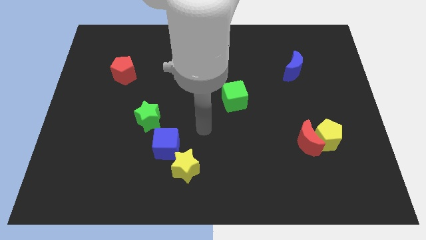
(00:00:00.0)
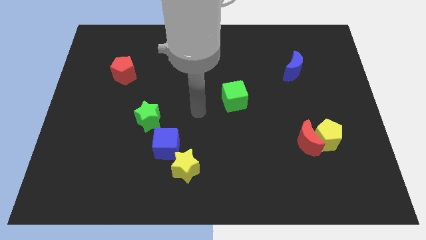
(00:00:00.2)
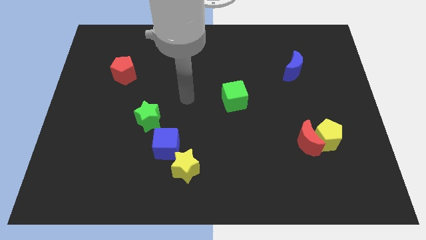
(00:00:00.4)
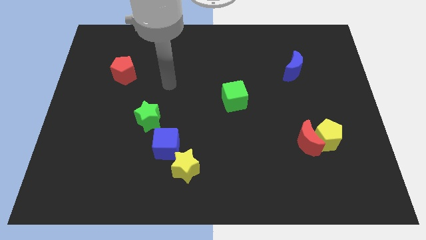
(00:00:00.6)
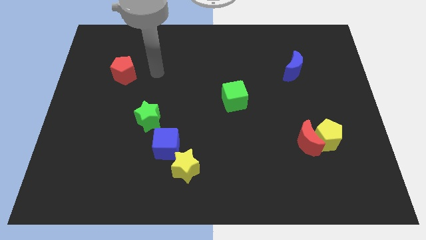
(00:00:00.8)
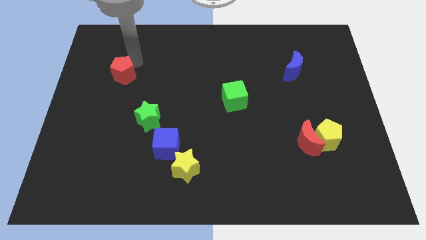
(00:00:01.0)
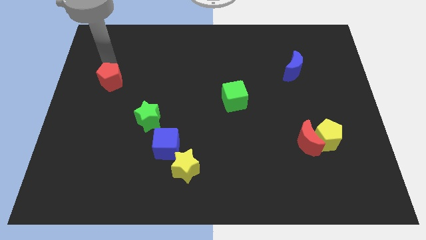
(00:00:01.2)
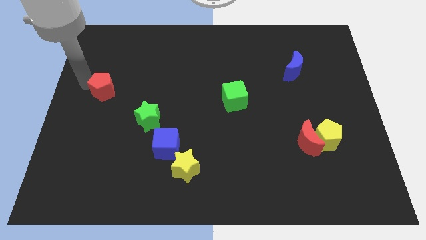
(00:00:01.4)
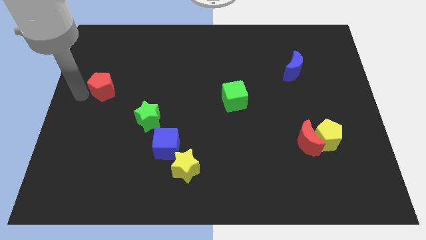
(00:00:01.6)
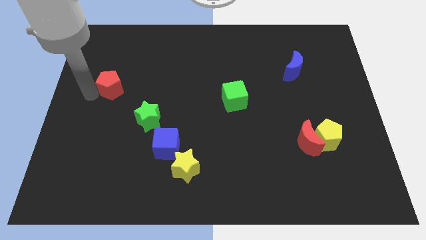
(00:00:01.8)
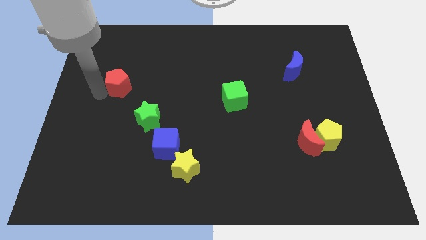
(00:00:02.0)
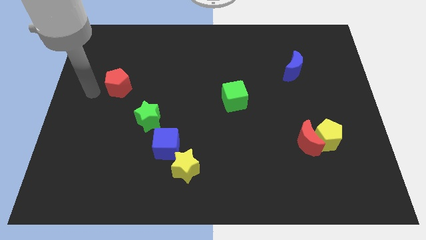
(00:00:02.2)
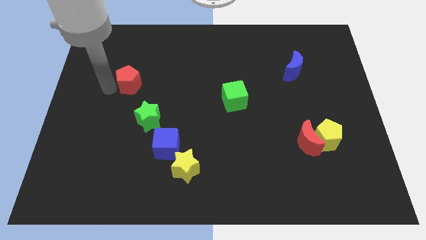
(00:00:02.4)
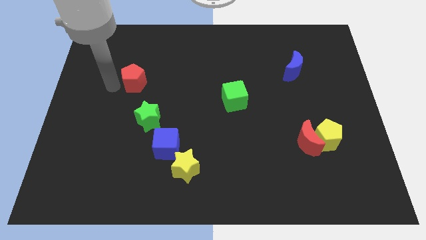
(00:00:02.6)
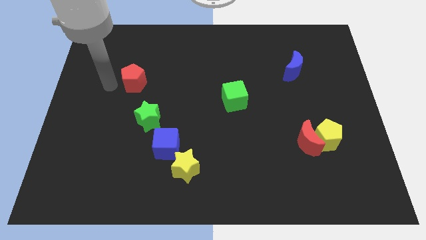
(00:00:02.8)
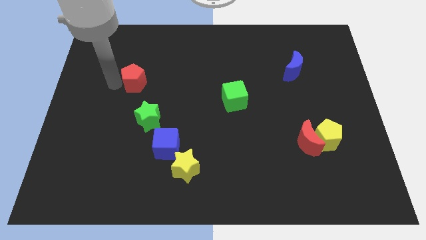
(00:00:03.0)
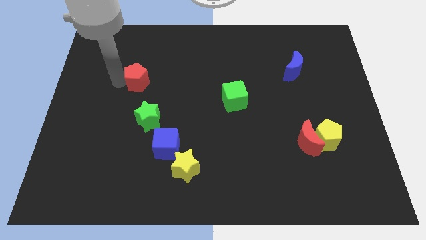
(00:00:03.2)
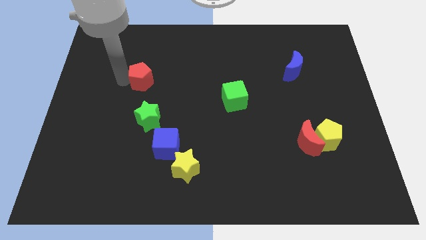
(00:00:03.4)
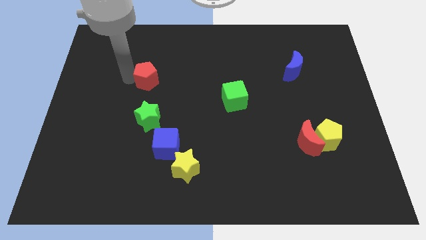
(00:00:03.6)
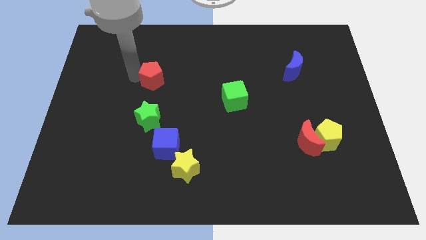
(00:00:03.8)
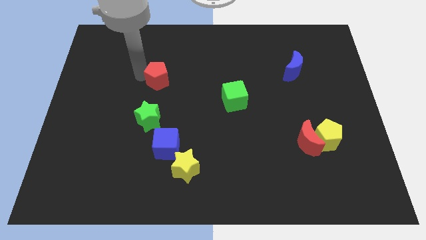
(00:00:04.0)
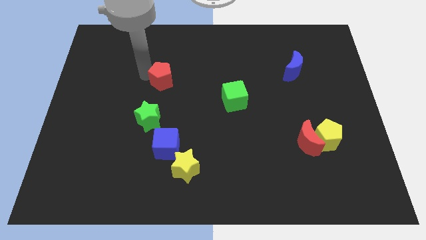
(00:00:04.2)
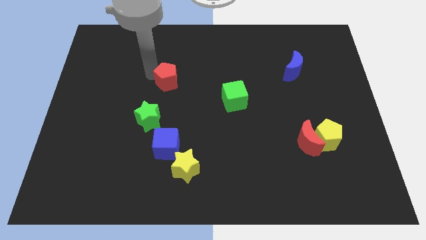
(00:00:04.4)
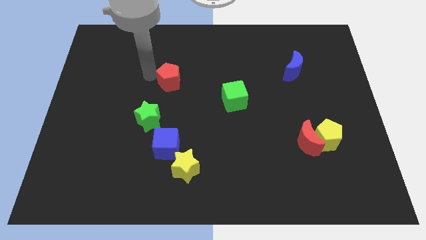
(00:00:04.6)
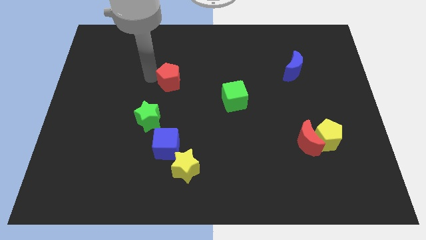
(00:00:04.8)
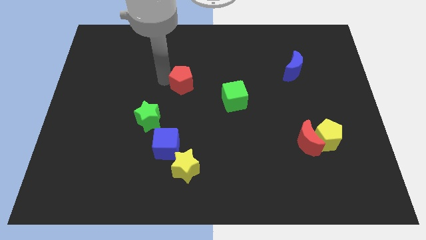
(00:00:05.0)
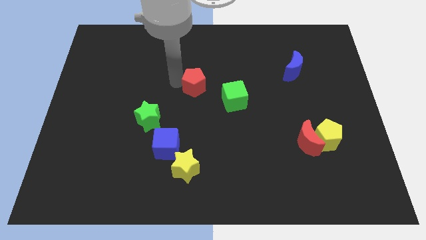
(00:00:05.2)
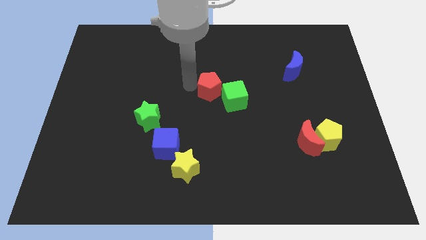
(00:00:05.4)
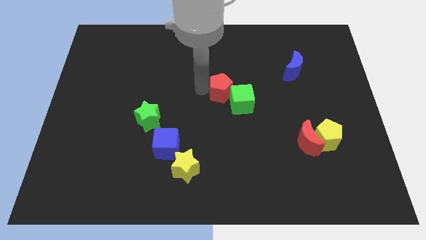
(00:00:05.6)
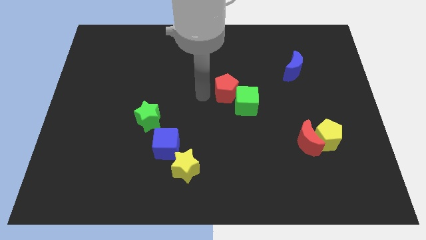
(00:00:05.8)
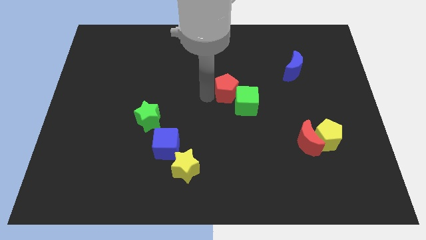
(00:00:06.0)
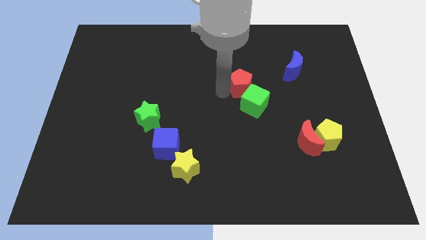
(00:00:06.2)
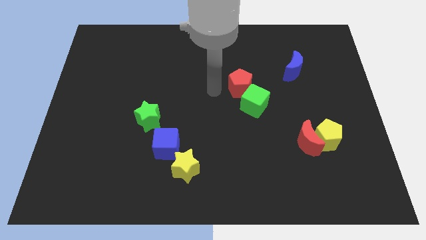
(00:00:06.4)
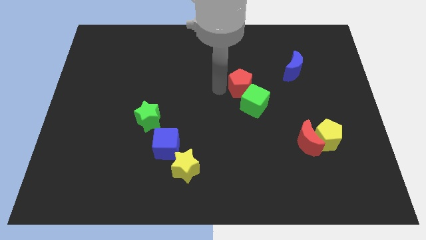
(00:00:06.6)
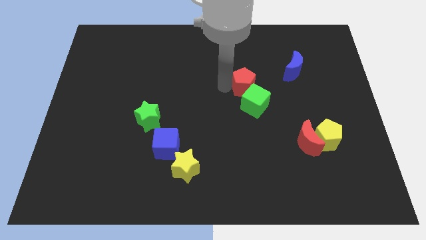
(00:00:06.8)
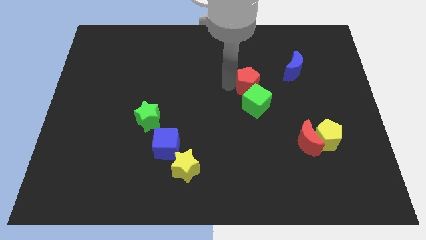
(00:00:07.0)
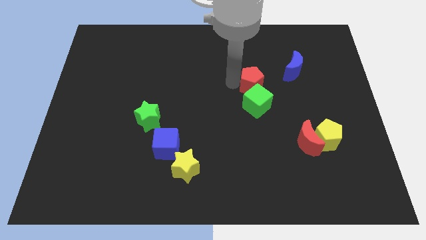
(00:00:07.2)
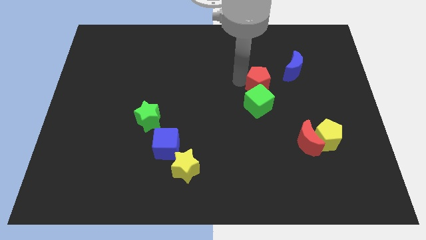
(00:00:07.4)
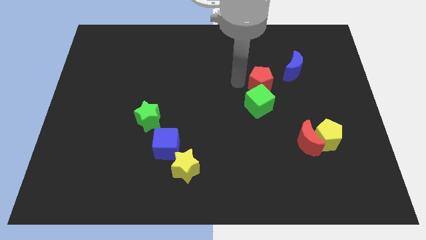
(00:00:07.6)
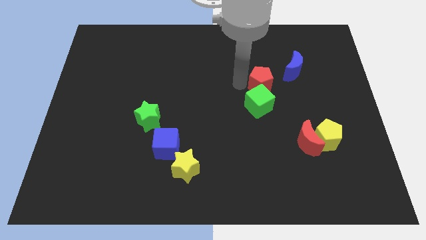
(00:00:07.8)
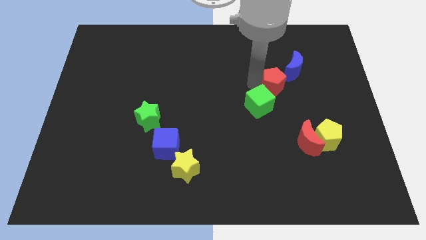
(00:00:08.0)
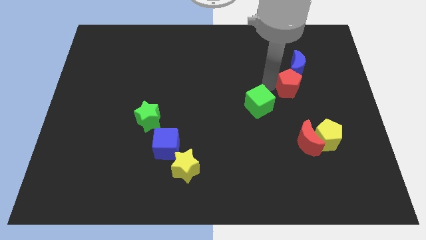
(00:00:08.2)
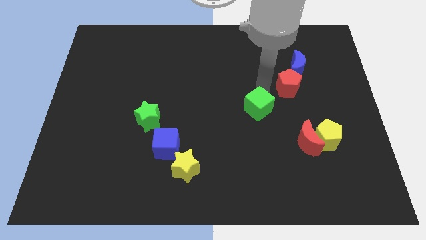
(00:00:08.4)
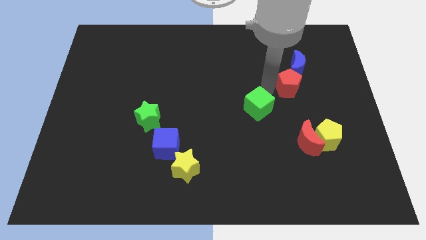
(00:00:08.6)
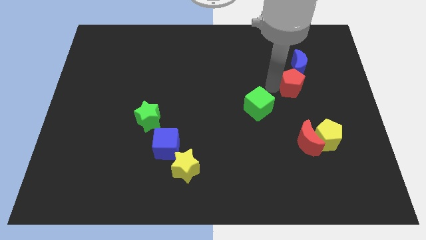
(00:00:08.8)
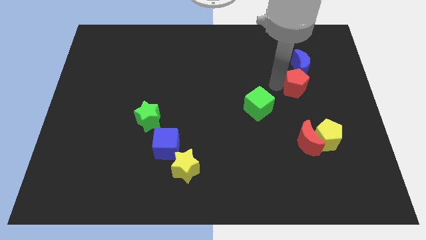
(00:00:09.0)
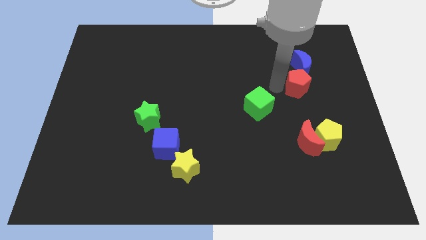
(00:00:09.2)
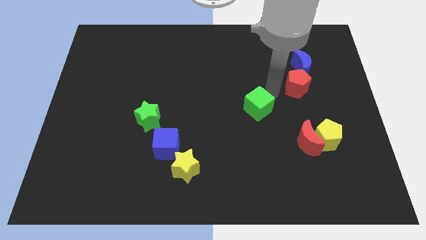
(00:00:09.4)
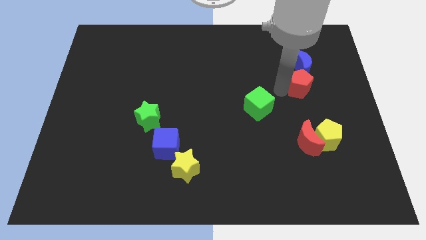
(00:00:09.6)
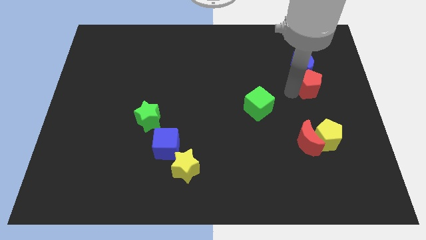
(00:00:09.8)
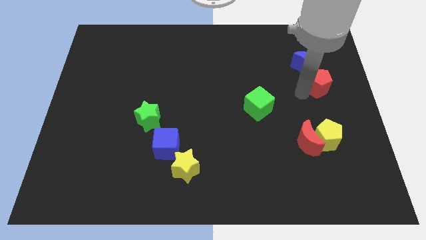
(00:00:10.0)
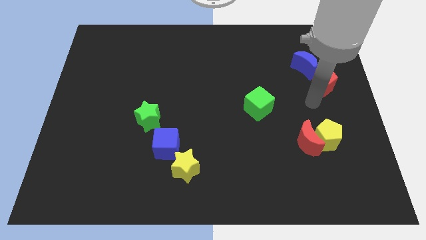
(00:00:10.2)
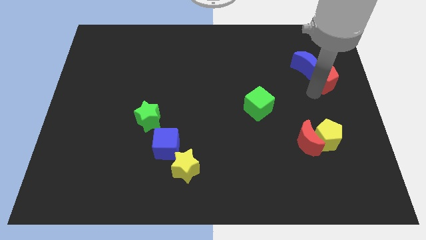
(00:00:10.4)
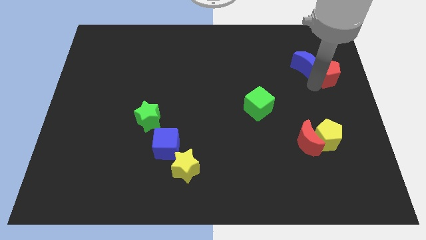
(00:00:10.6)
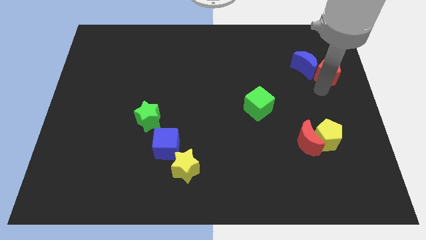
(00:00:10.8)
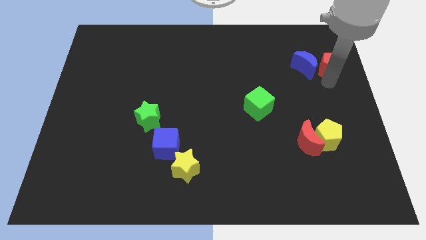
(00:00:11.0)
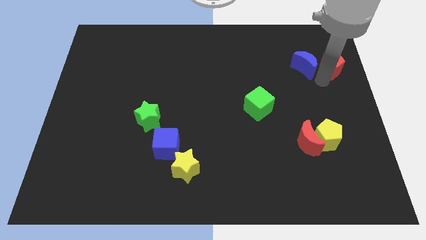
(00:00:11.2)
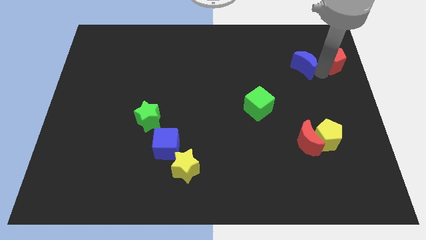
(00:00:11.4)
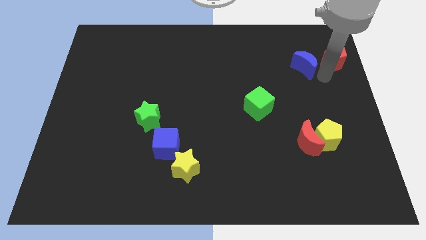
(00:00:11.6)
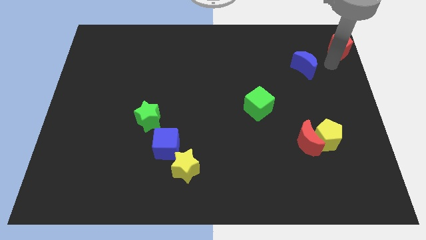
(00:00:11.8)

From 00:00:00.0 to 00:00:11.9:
push the red pentagon to the top right
